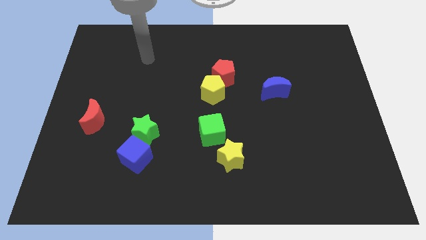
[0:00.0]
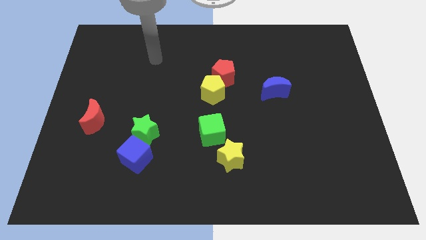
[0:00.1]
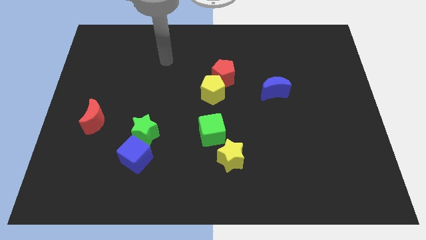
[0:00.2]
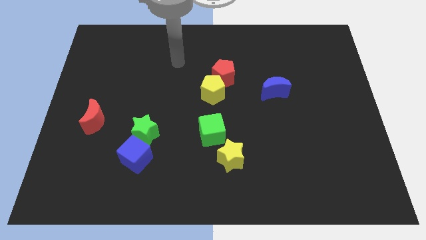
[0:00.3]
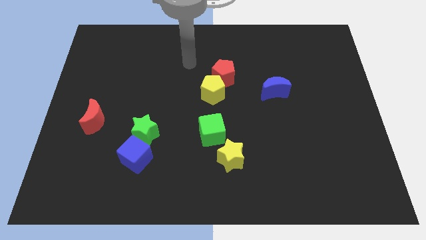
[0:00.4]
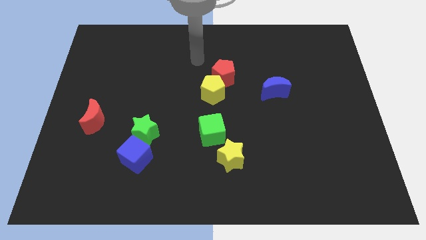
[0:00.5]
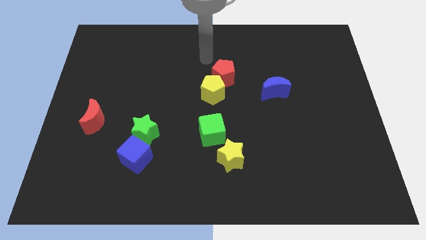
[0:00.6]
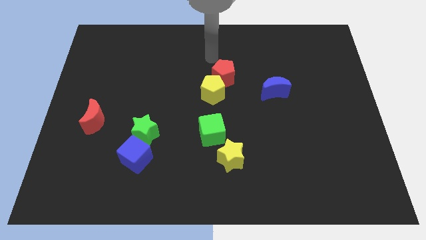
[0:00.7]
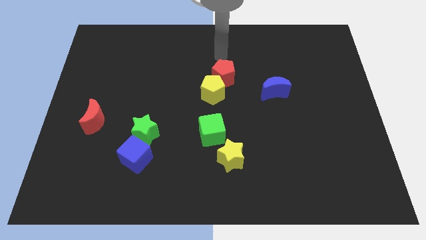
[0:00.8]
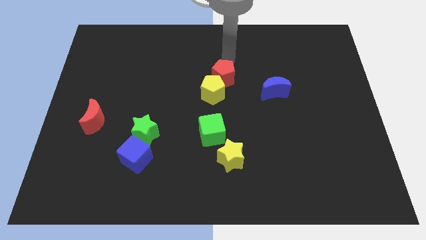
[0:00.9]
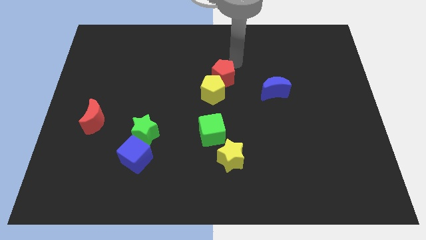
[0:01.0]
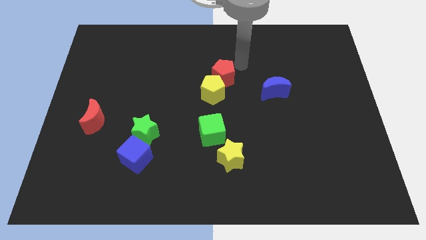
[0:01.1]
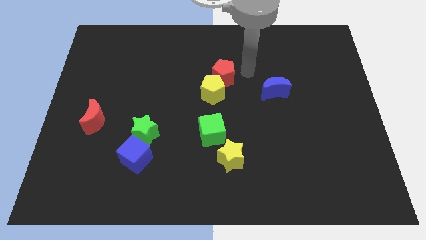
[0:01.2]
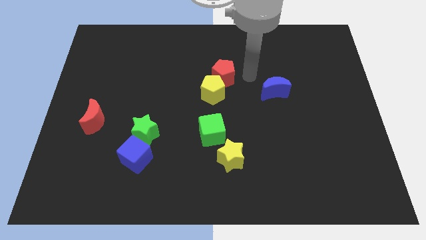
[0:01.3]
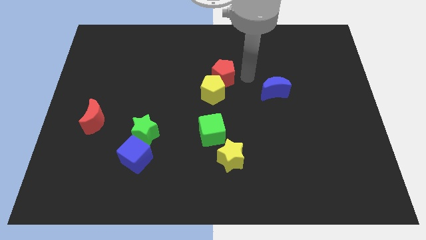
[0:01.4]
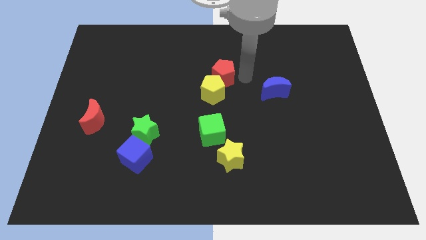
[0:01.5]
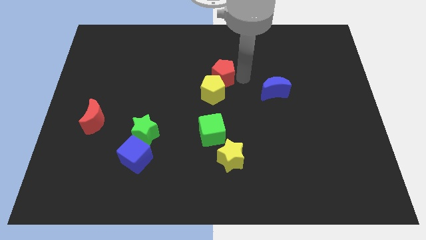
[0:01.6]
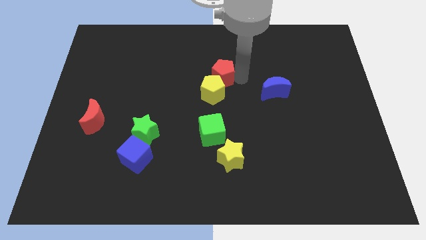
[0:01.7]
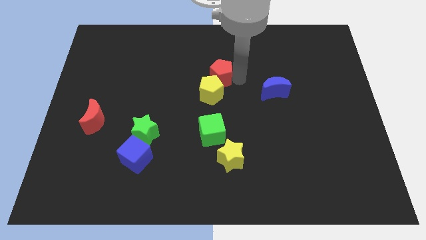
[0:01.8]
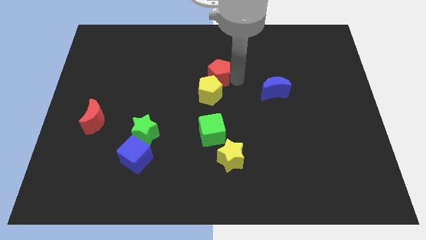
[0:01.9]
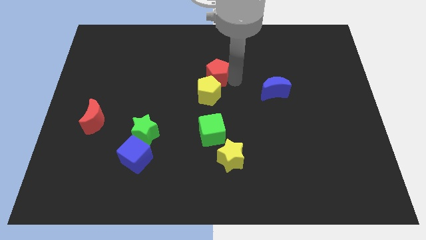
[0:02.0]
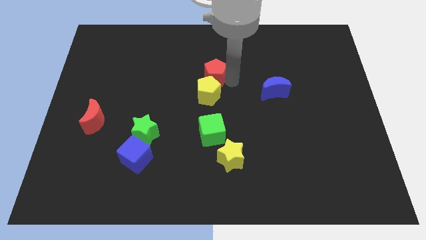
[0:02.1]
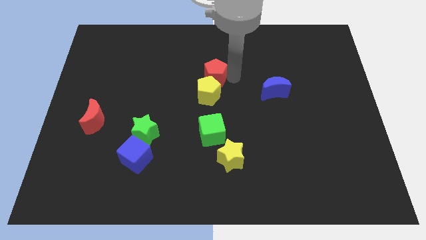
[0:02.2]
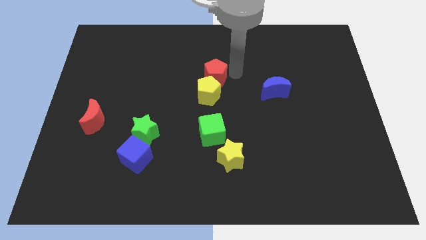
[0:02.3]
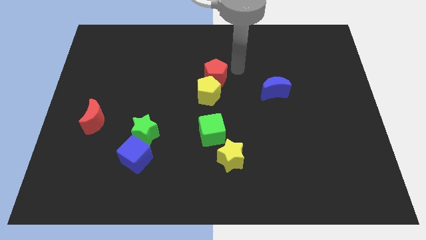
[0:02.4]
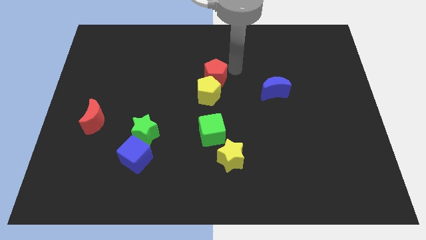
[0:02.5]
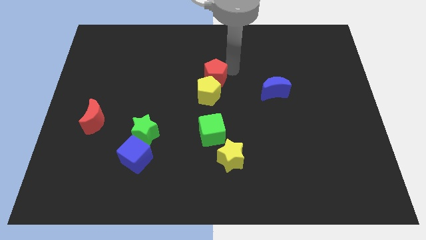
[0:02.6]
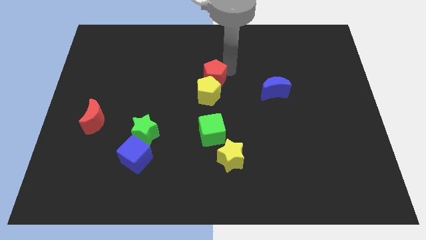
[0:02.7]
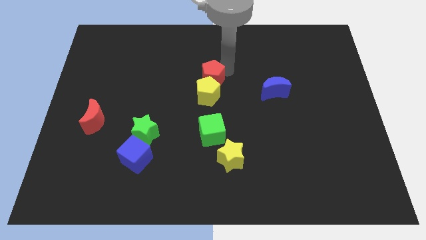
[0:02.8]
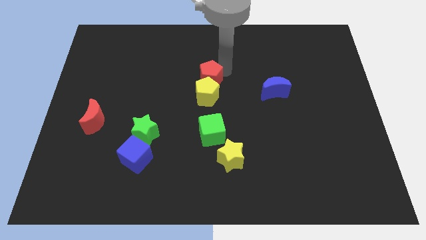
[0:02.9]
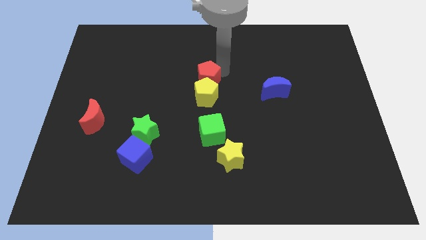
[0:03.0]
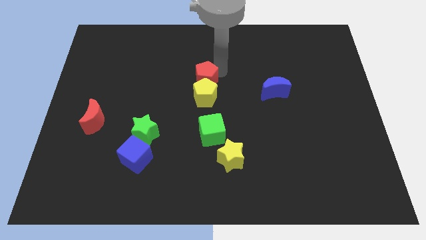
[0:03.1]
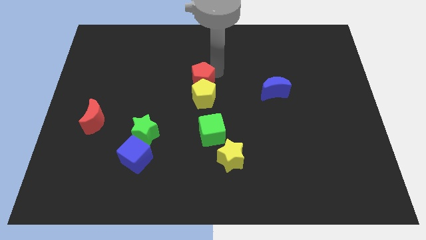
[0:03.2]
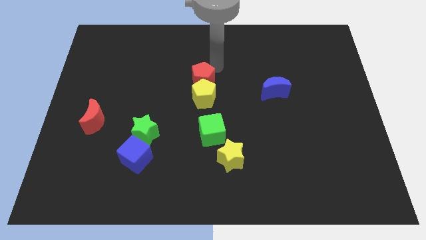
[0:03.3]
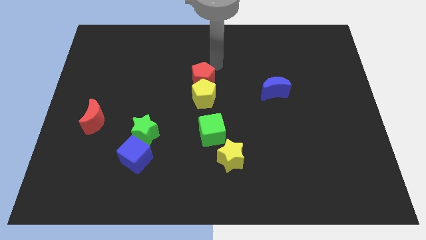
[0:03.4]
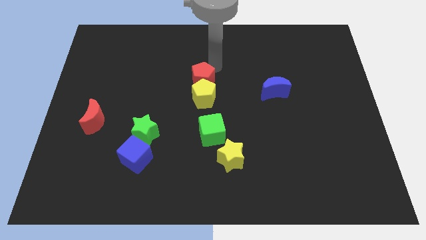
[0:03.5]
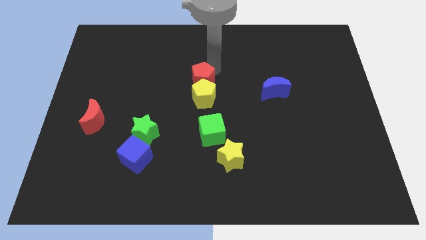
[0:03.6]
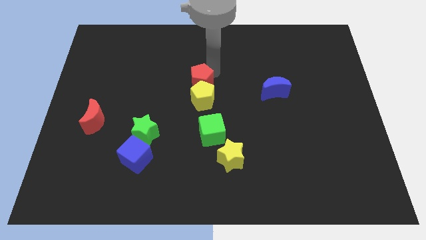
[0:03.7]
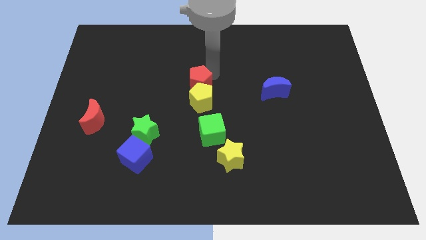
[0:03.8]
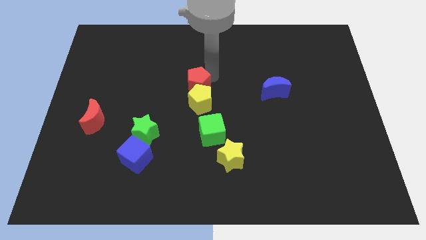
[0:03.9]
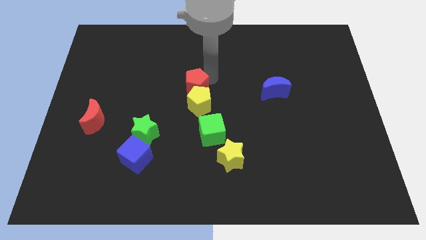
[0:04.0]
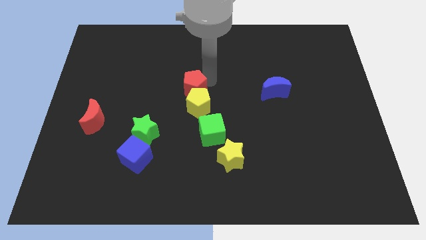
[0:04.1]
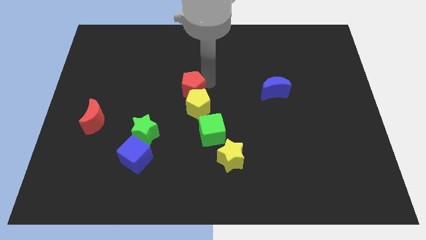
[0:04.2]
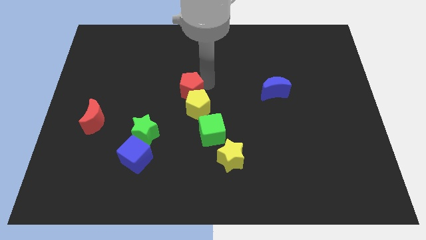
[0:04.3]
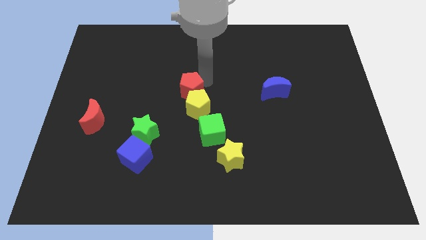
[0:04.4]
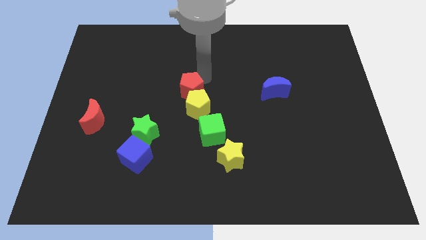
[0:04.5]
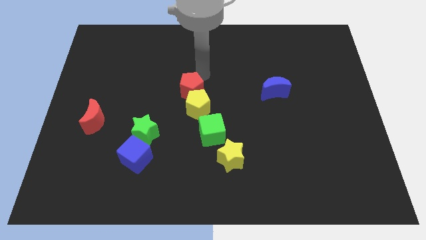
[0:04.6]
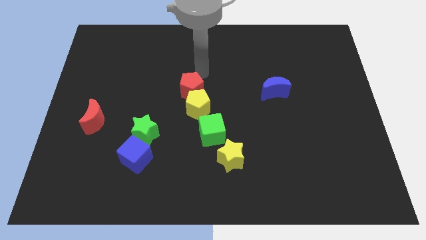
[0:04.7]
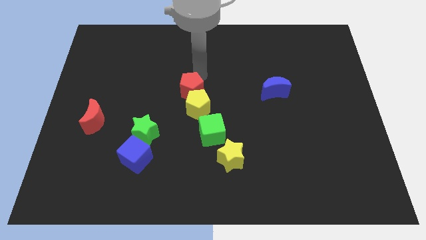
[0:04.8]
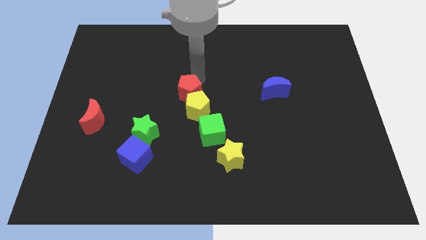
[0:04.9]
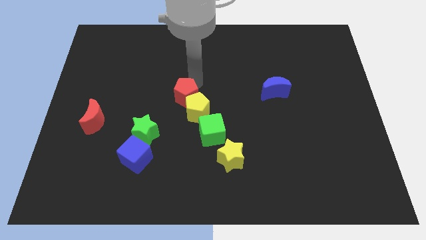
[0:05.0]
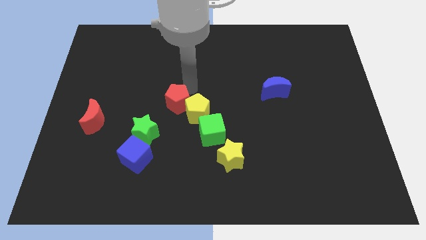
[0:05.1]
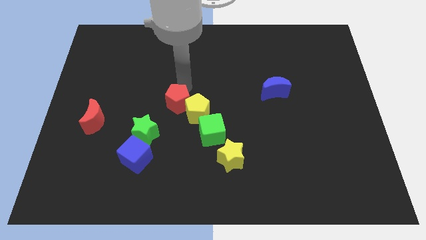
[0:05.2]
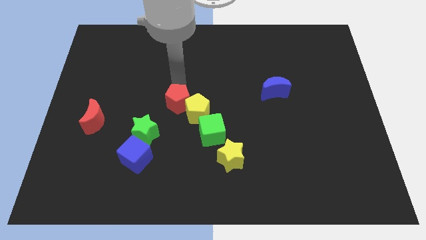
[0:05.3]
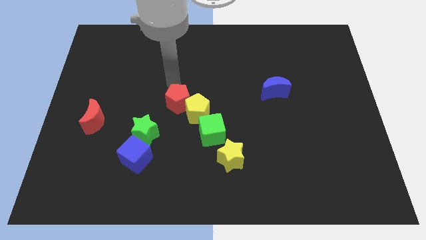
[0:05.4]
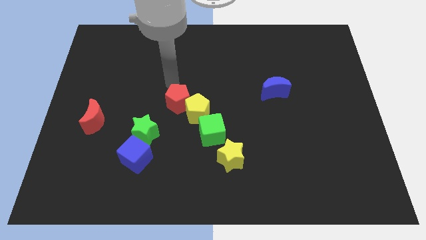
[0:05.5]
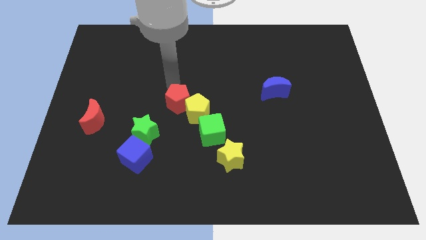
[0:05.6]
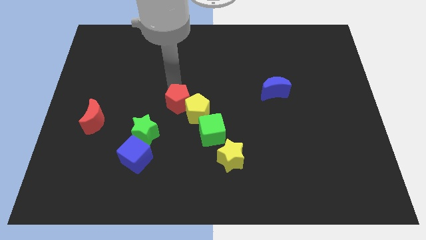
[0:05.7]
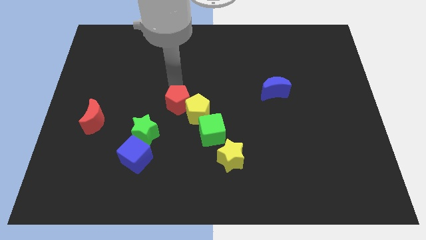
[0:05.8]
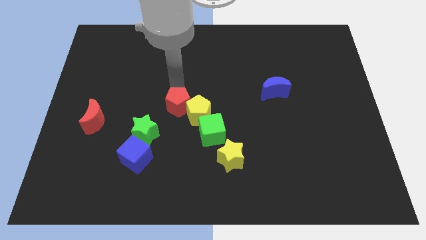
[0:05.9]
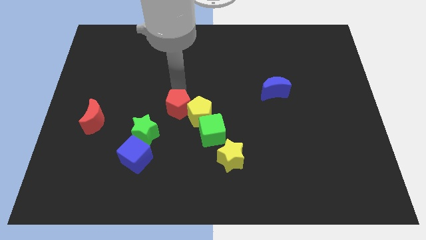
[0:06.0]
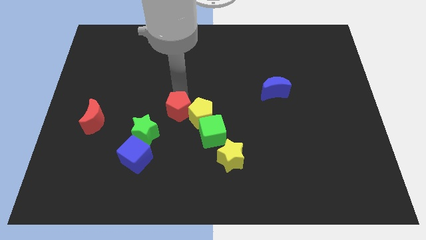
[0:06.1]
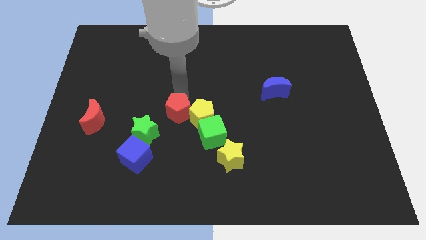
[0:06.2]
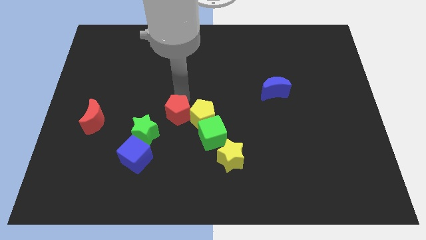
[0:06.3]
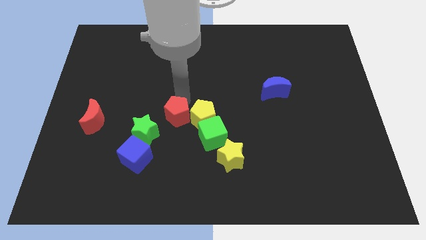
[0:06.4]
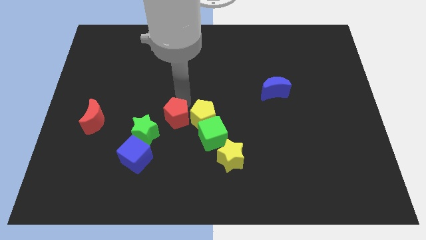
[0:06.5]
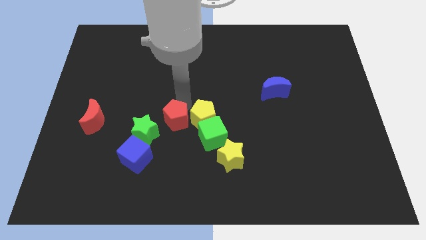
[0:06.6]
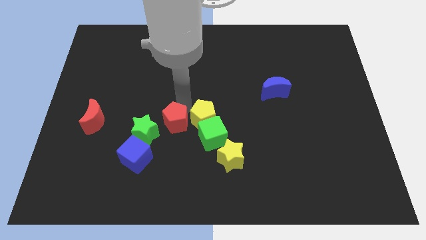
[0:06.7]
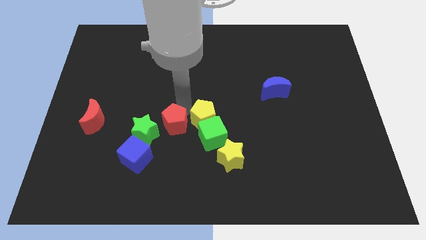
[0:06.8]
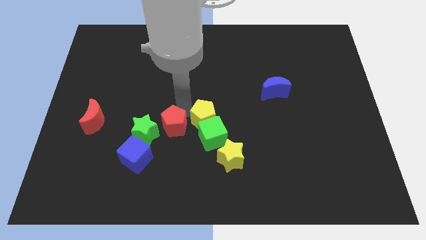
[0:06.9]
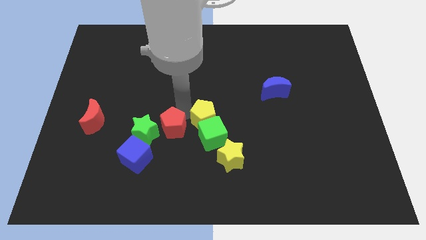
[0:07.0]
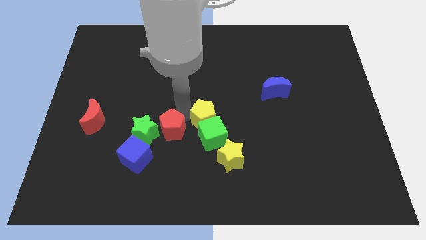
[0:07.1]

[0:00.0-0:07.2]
slide the red pentagon diagonally down and to the right of the green star
